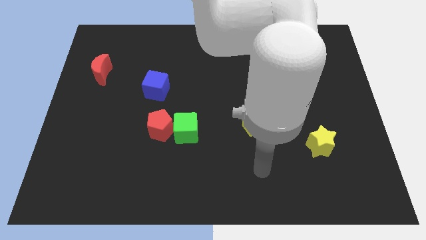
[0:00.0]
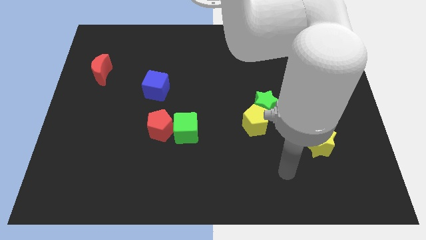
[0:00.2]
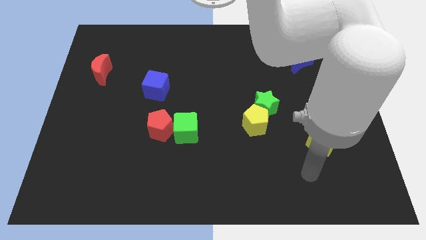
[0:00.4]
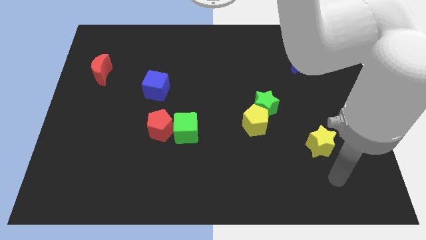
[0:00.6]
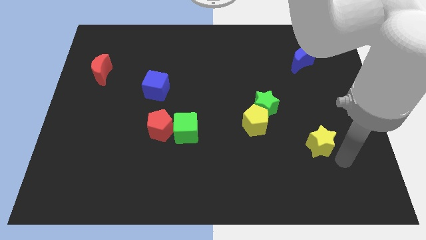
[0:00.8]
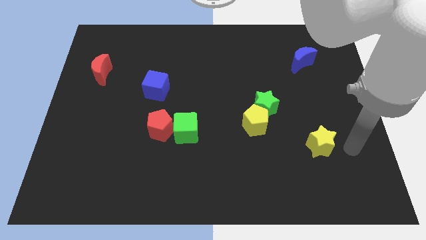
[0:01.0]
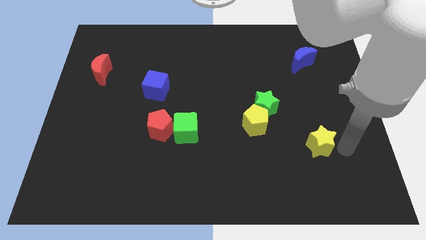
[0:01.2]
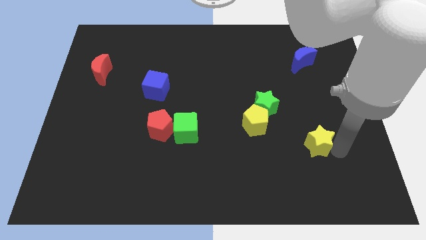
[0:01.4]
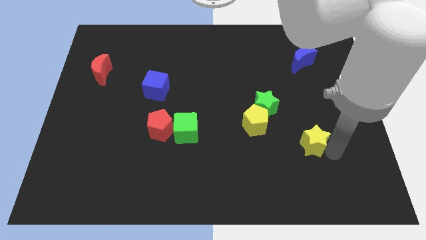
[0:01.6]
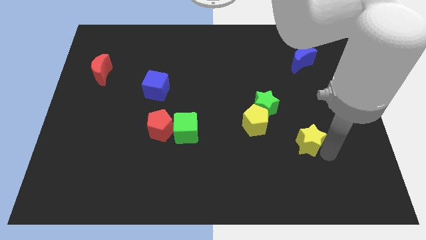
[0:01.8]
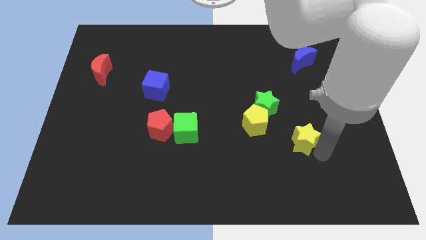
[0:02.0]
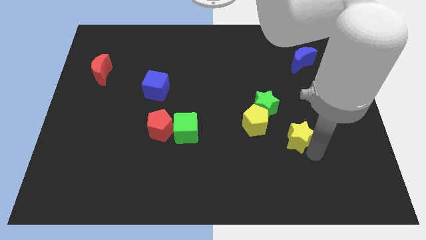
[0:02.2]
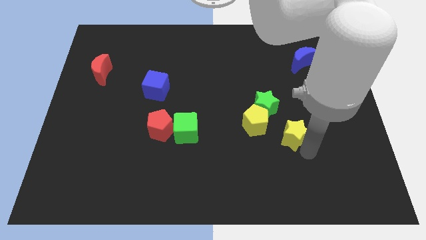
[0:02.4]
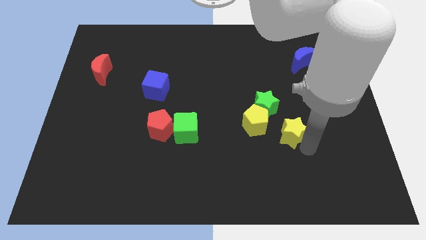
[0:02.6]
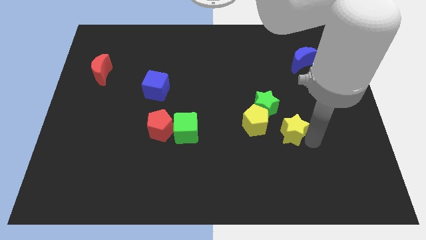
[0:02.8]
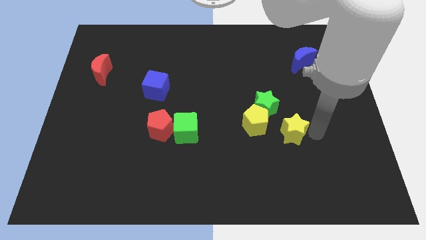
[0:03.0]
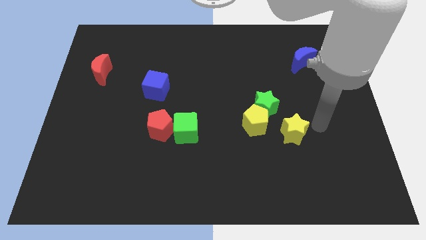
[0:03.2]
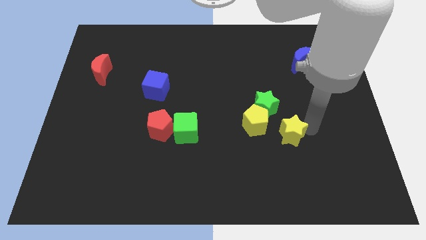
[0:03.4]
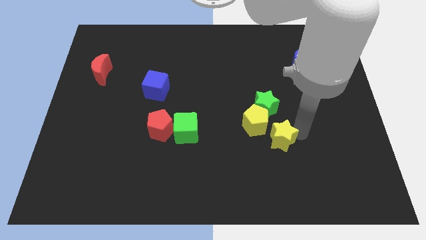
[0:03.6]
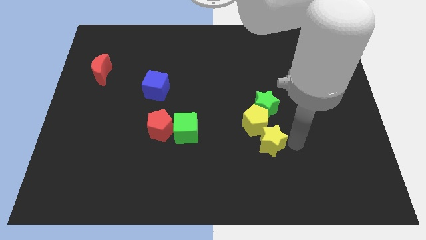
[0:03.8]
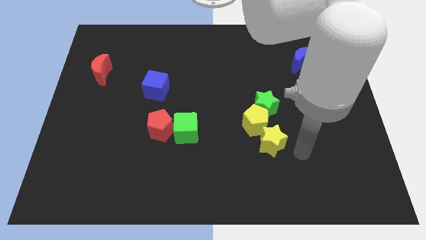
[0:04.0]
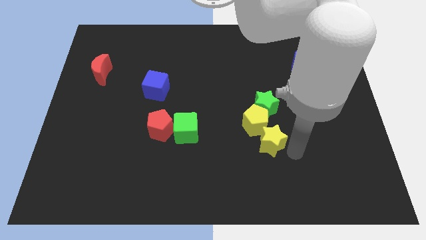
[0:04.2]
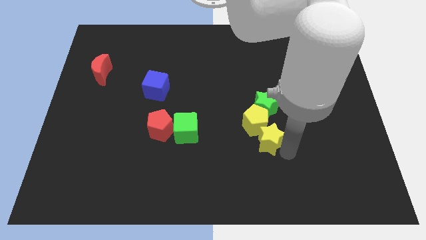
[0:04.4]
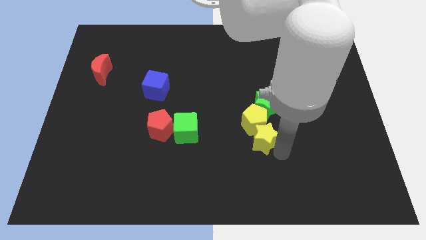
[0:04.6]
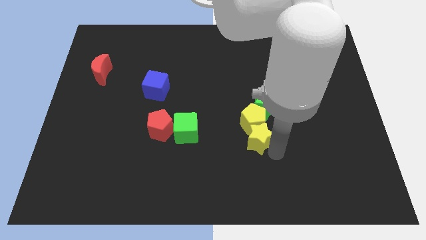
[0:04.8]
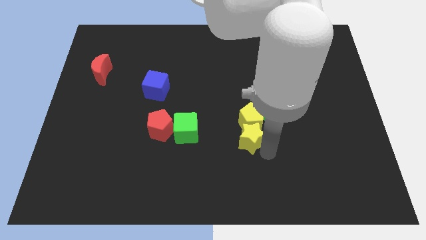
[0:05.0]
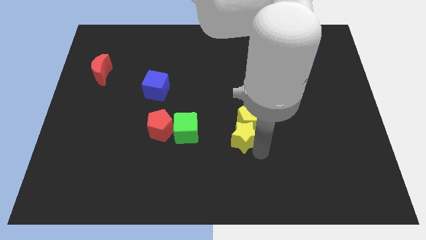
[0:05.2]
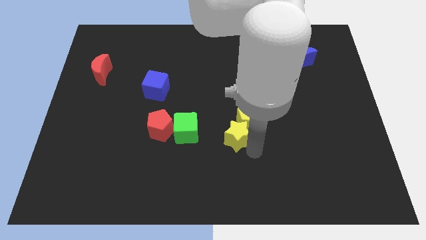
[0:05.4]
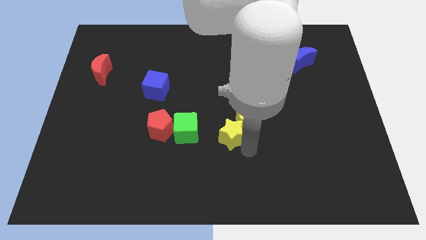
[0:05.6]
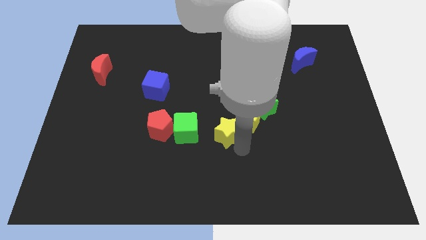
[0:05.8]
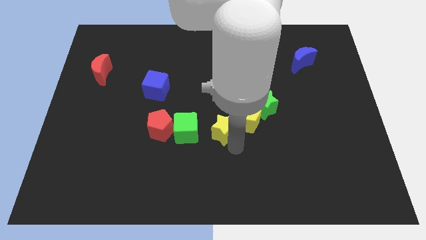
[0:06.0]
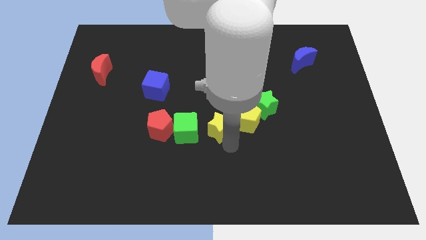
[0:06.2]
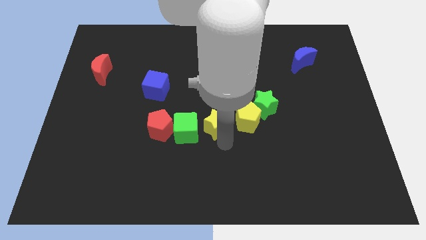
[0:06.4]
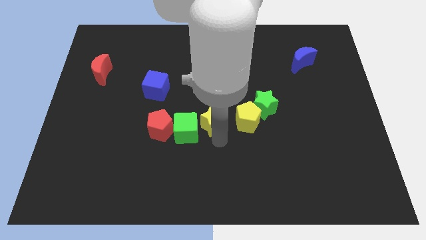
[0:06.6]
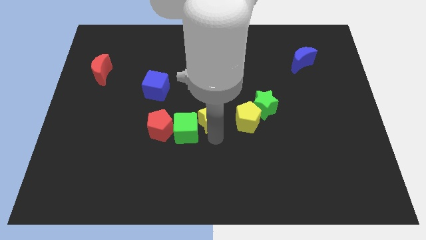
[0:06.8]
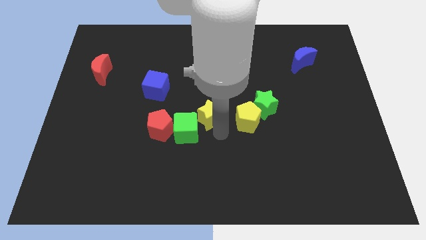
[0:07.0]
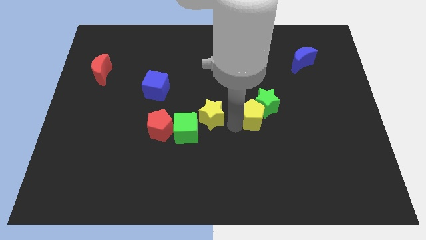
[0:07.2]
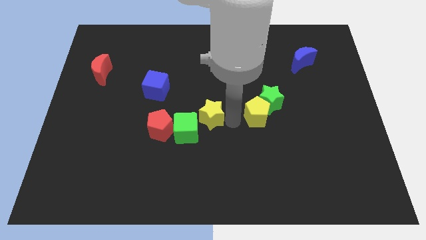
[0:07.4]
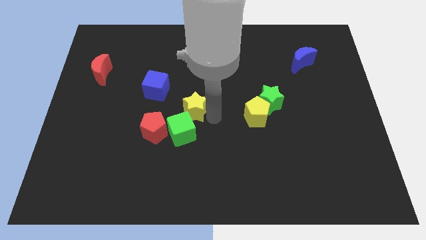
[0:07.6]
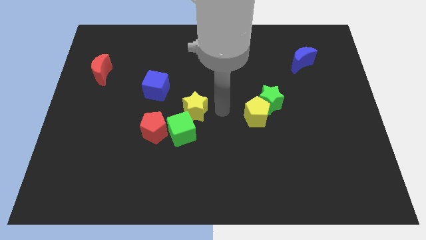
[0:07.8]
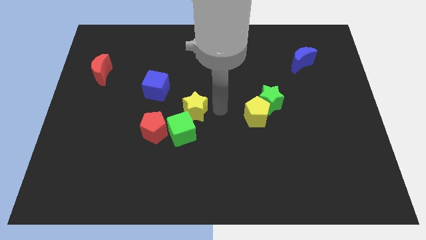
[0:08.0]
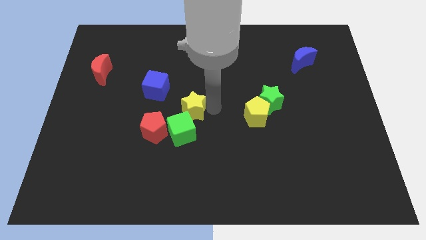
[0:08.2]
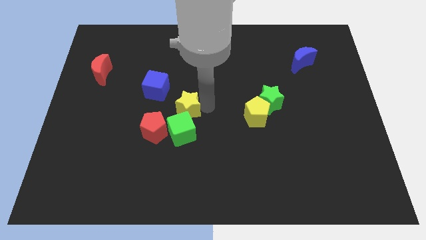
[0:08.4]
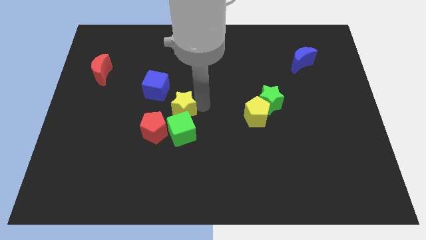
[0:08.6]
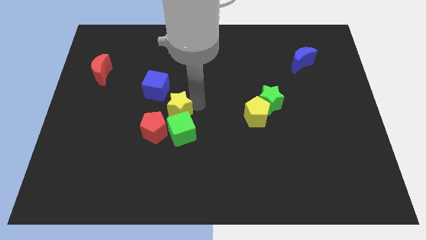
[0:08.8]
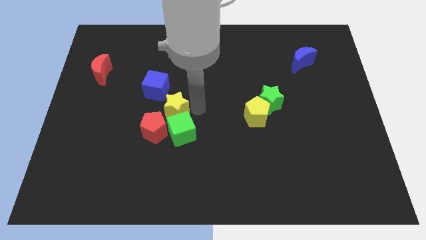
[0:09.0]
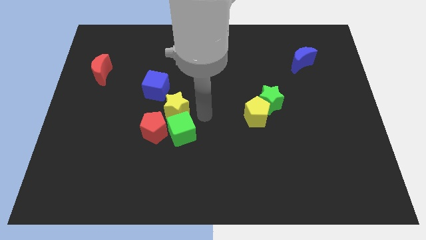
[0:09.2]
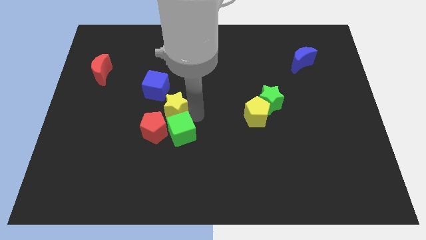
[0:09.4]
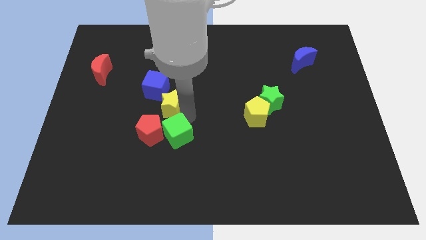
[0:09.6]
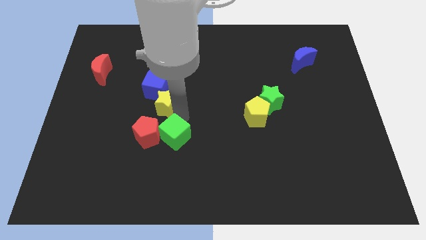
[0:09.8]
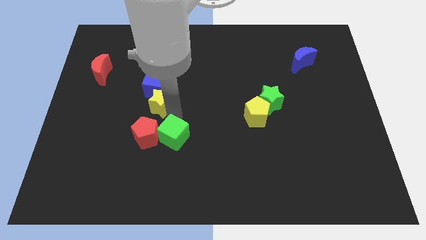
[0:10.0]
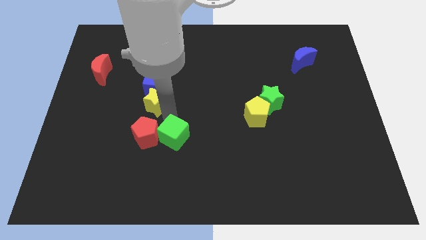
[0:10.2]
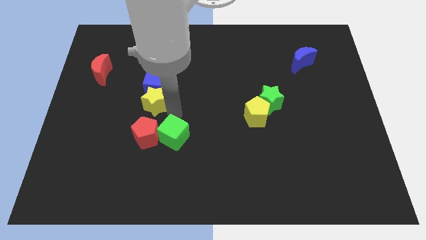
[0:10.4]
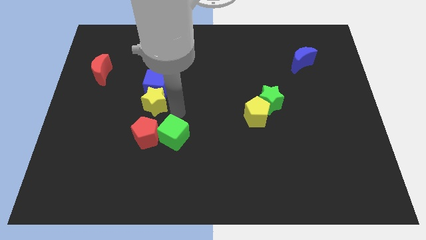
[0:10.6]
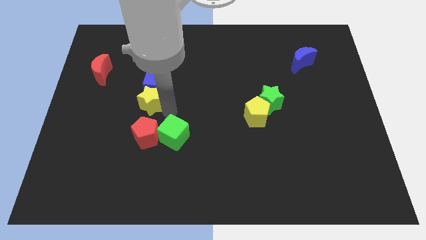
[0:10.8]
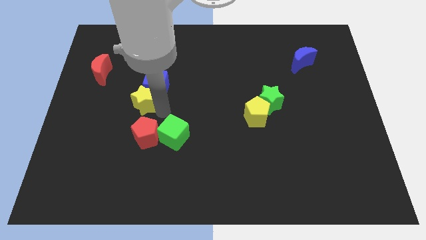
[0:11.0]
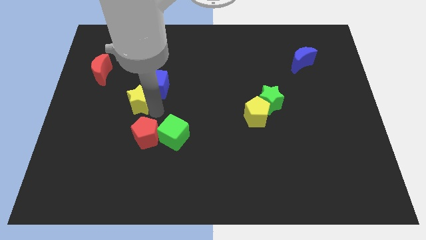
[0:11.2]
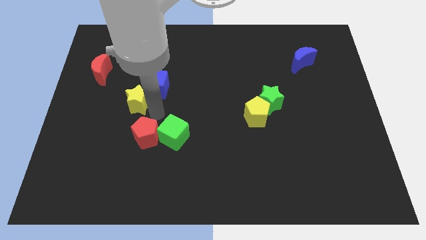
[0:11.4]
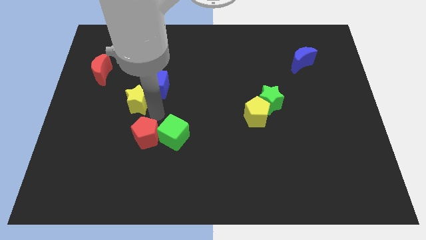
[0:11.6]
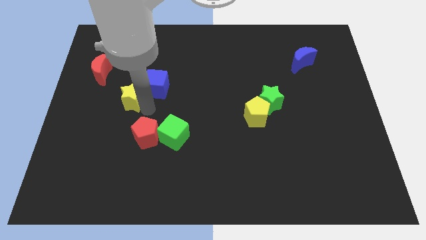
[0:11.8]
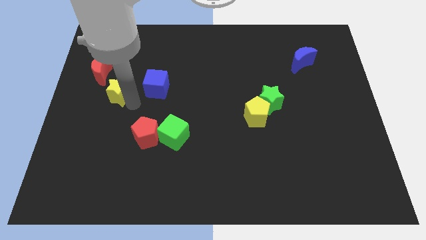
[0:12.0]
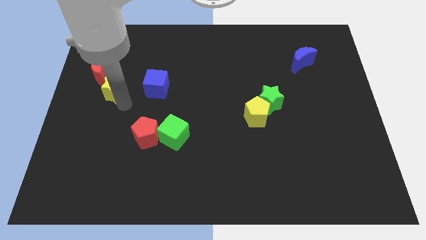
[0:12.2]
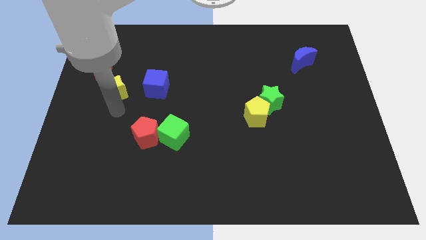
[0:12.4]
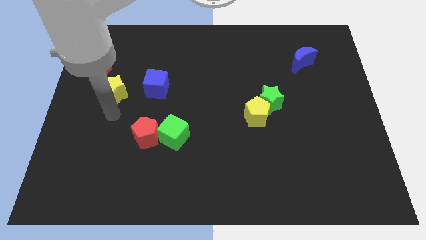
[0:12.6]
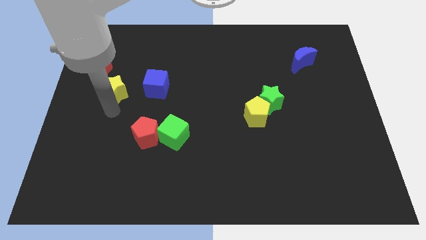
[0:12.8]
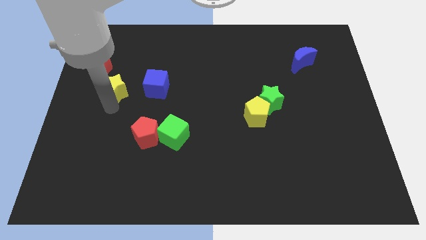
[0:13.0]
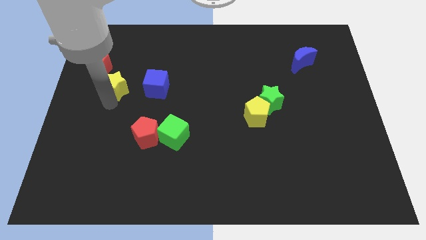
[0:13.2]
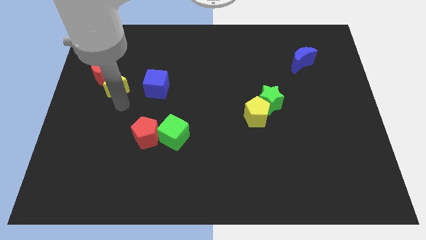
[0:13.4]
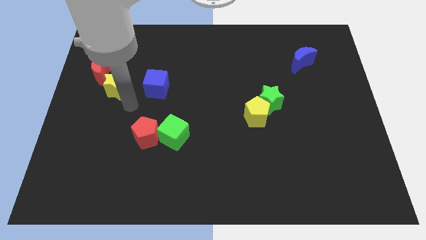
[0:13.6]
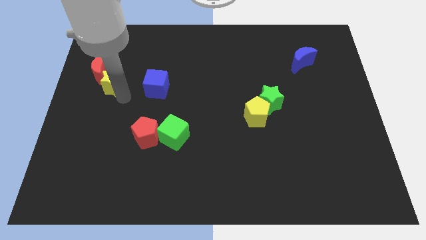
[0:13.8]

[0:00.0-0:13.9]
push the yellow star next to the red moon

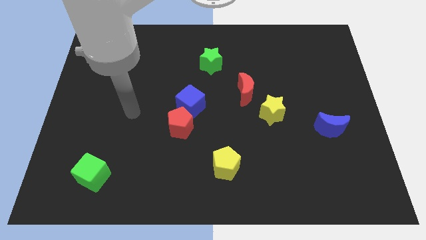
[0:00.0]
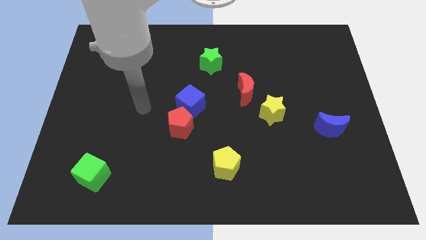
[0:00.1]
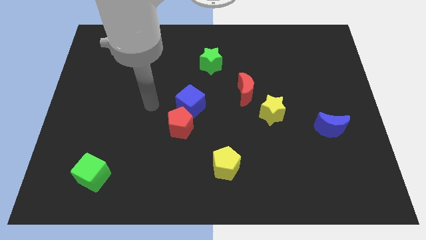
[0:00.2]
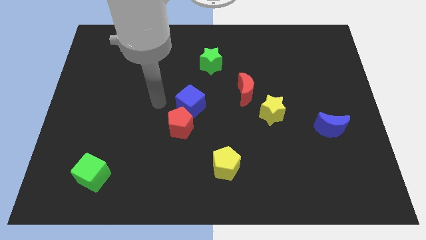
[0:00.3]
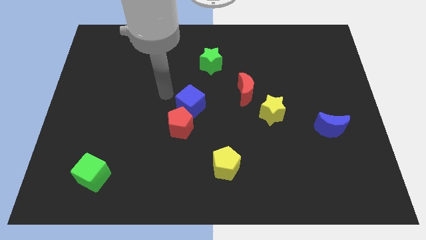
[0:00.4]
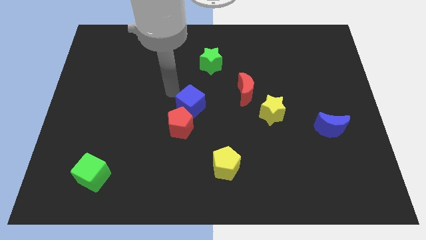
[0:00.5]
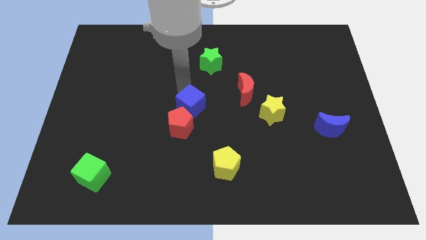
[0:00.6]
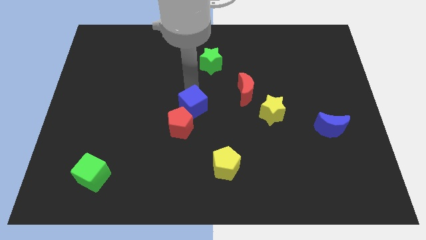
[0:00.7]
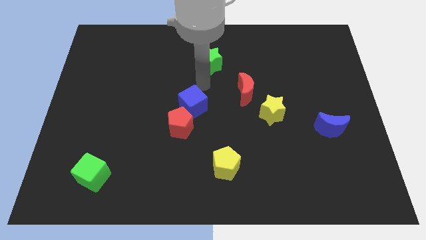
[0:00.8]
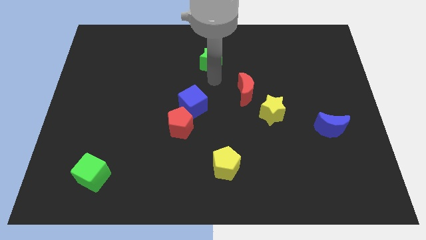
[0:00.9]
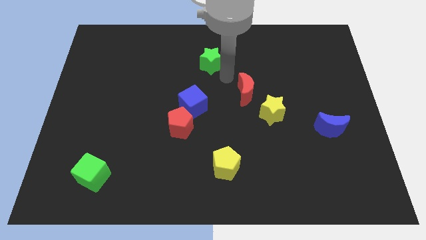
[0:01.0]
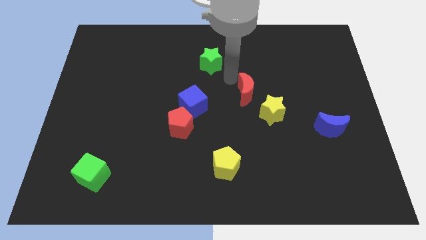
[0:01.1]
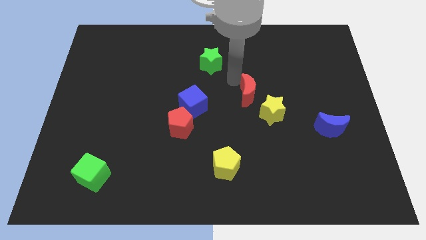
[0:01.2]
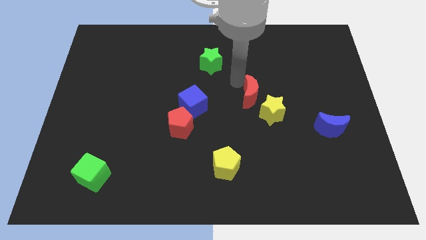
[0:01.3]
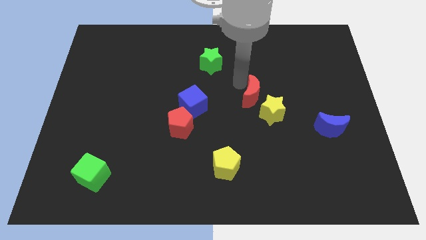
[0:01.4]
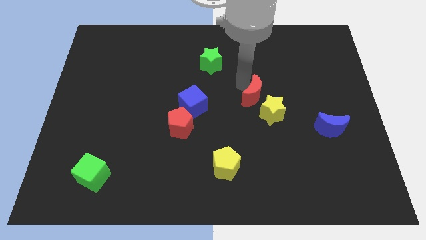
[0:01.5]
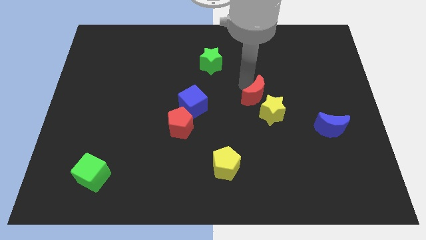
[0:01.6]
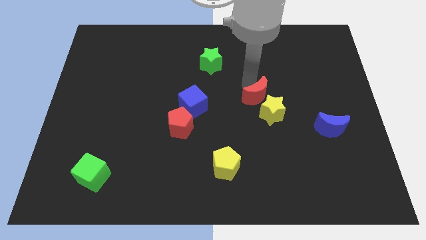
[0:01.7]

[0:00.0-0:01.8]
push the red moon towards the yellow star
